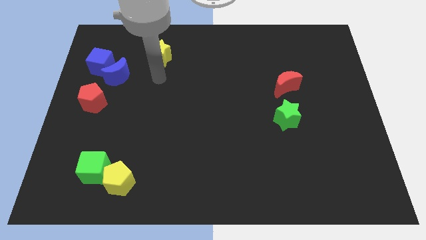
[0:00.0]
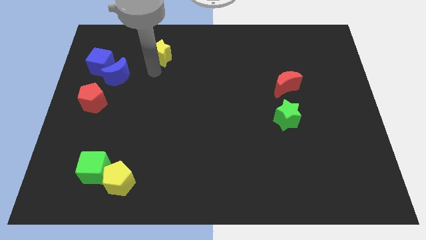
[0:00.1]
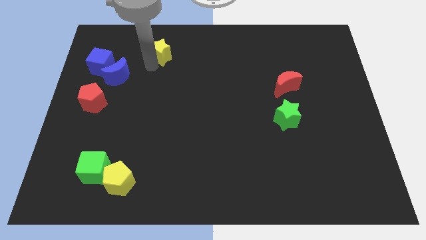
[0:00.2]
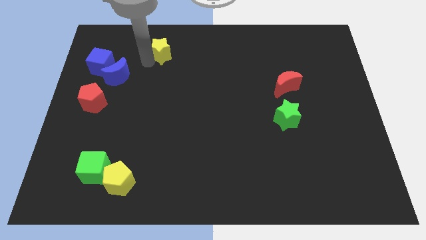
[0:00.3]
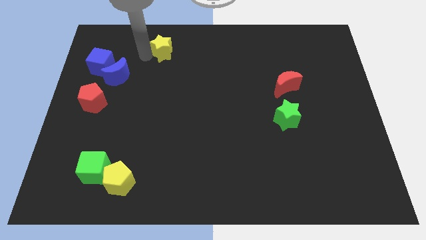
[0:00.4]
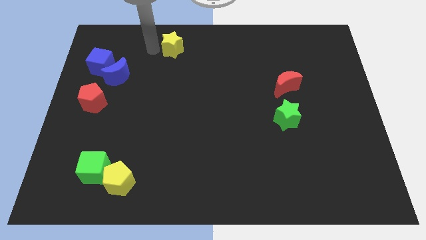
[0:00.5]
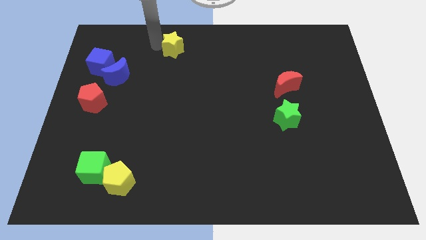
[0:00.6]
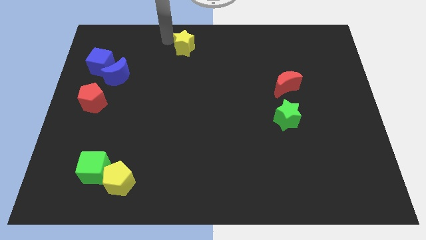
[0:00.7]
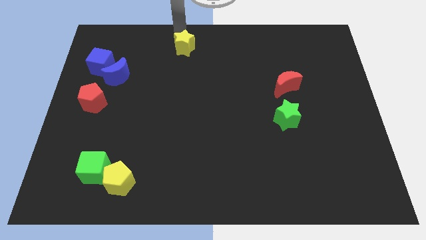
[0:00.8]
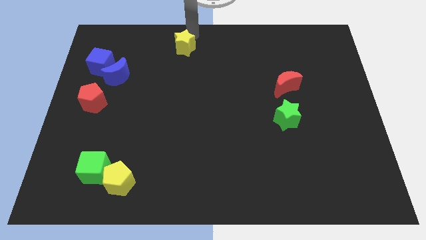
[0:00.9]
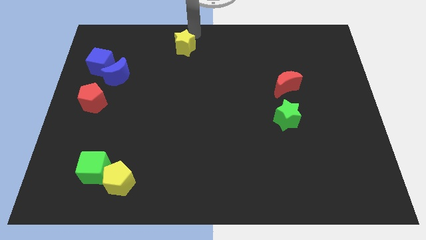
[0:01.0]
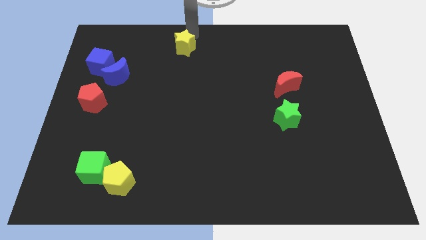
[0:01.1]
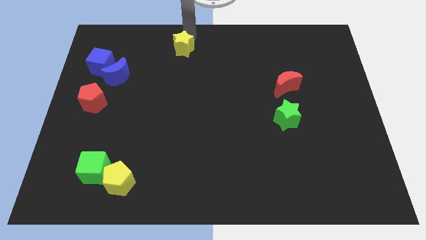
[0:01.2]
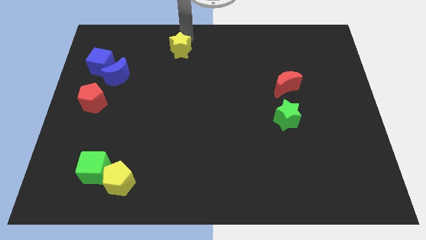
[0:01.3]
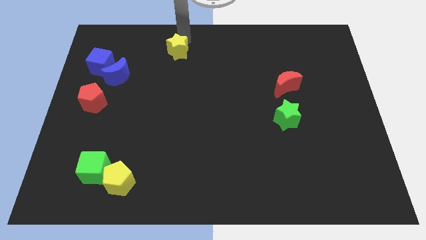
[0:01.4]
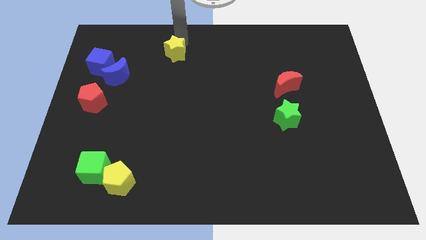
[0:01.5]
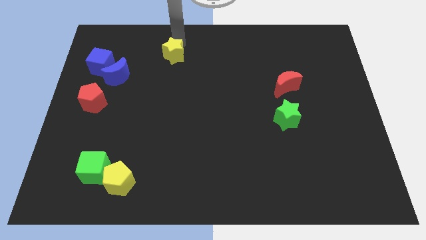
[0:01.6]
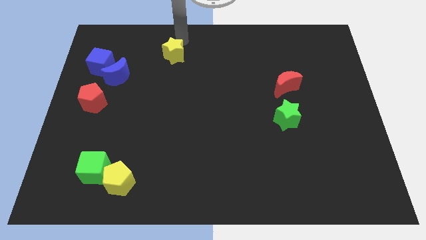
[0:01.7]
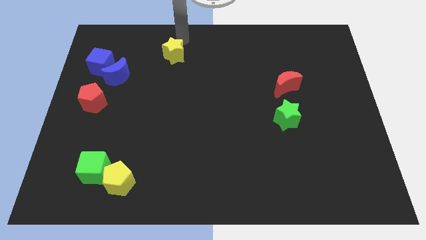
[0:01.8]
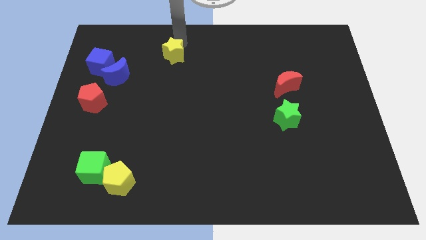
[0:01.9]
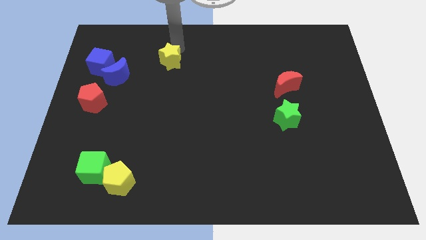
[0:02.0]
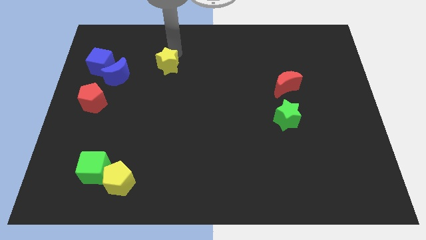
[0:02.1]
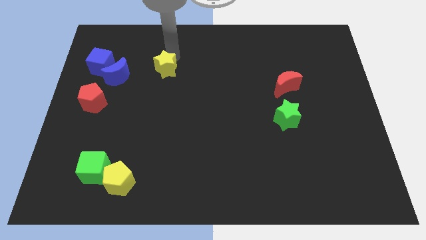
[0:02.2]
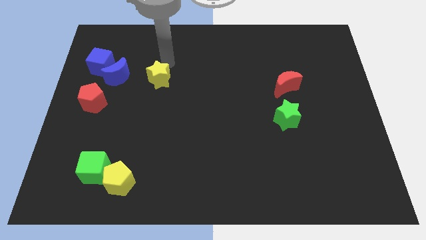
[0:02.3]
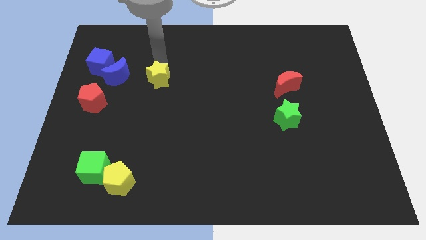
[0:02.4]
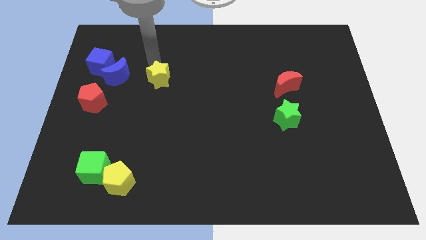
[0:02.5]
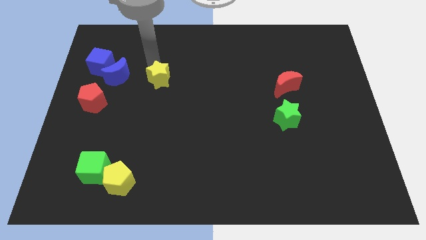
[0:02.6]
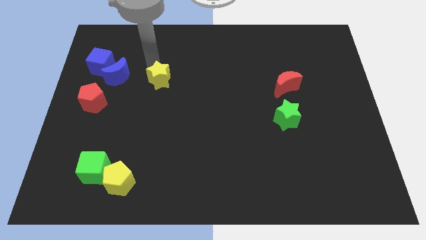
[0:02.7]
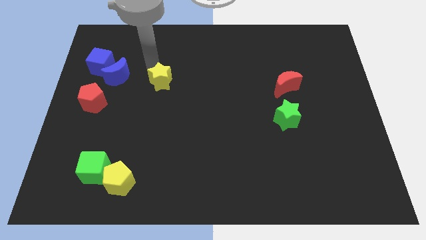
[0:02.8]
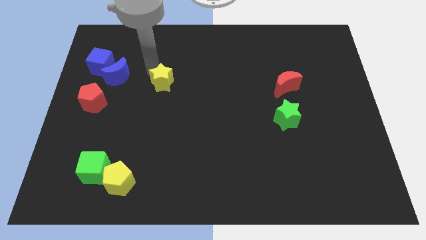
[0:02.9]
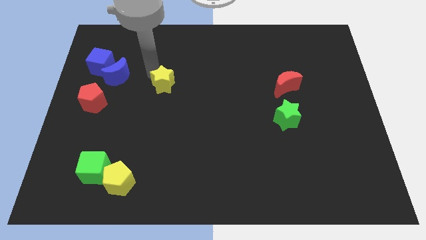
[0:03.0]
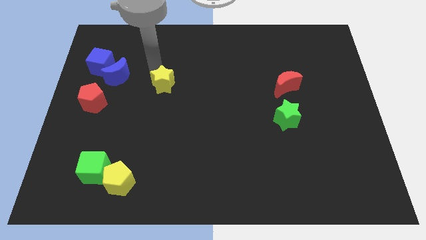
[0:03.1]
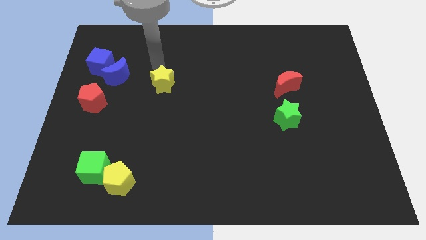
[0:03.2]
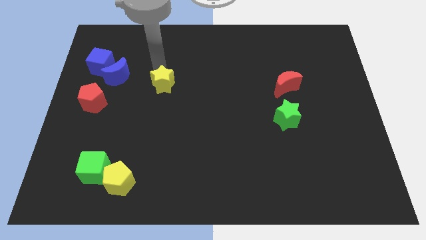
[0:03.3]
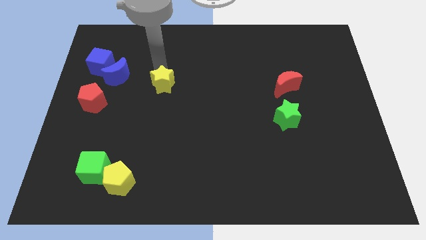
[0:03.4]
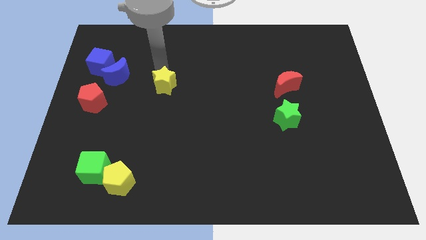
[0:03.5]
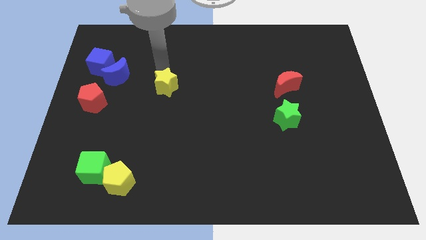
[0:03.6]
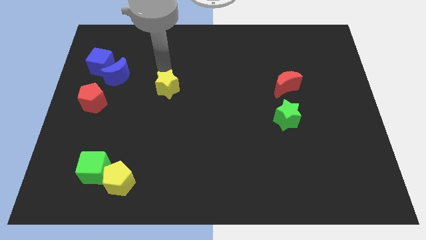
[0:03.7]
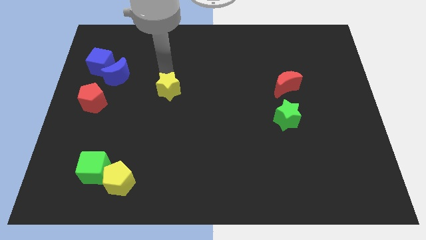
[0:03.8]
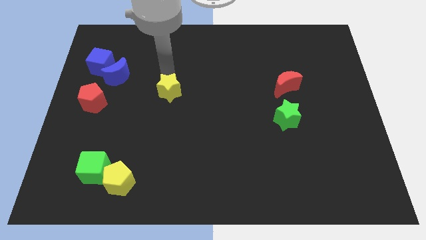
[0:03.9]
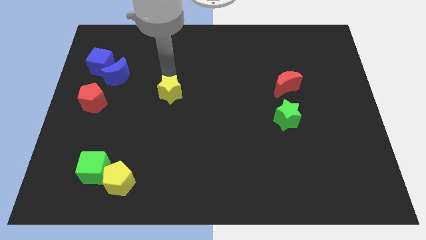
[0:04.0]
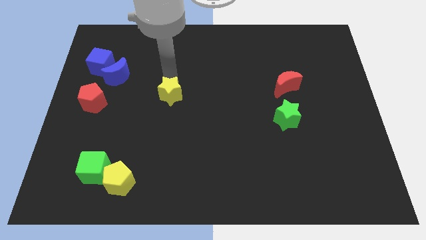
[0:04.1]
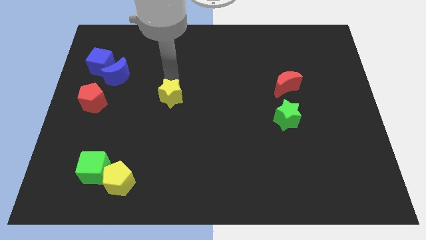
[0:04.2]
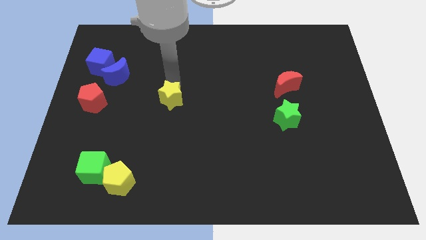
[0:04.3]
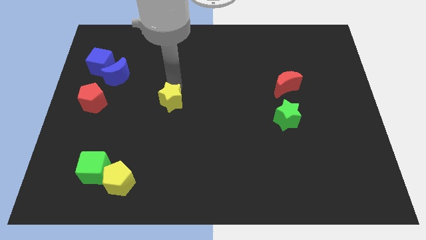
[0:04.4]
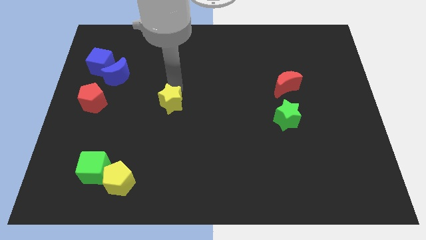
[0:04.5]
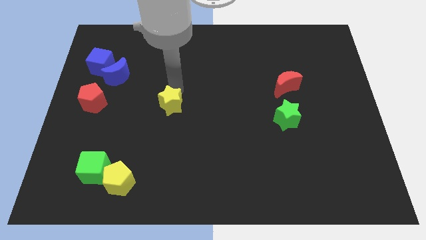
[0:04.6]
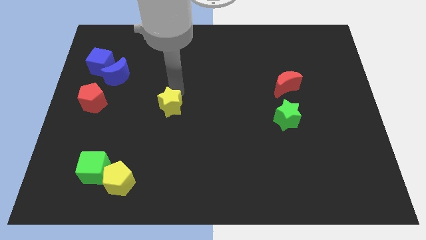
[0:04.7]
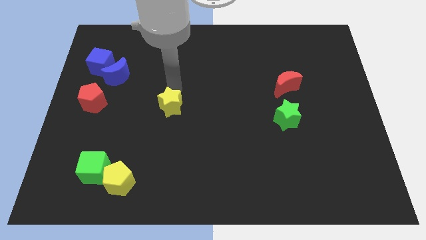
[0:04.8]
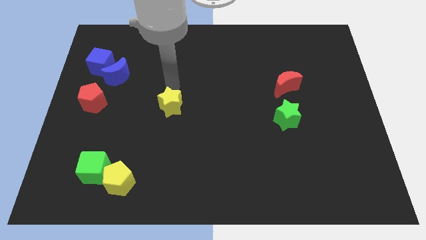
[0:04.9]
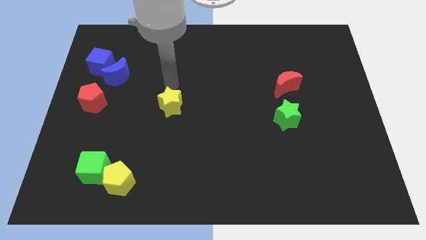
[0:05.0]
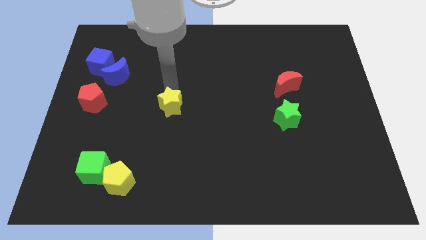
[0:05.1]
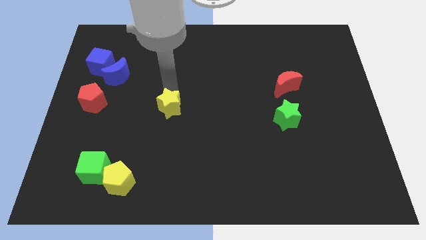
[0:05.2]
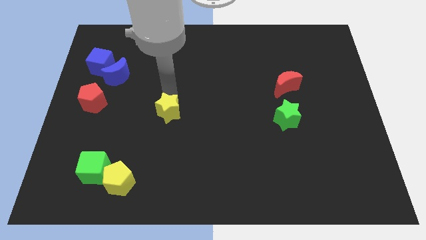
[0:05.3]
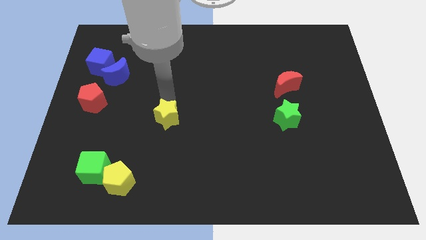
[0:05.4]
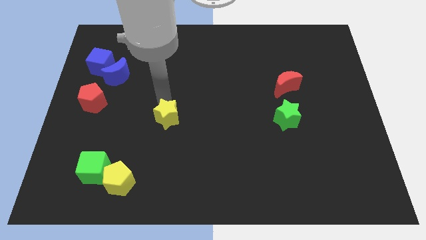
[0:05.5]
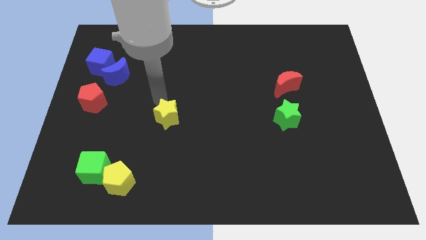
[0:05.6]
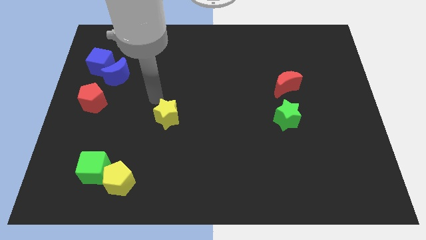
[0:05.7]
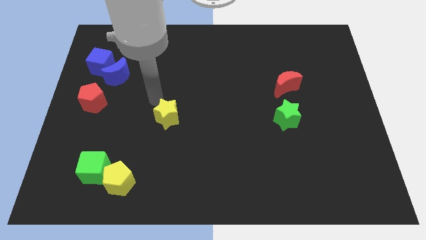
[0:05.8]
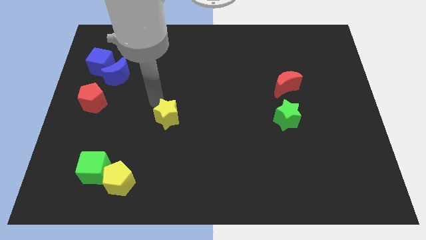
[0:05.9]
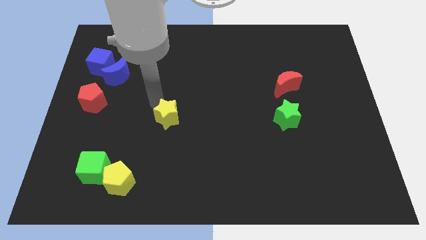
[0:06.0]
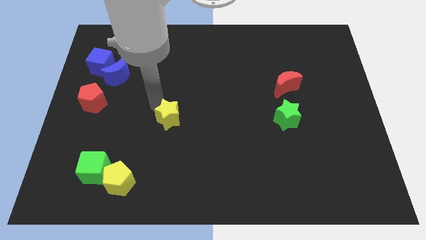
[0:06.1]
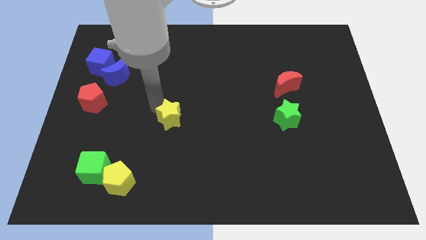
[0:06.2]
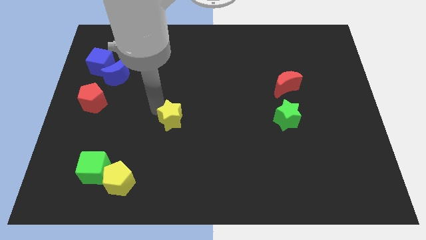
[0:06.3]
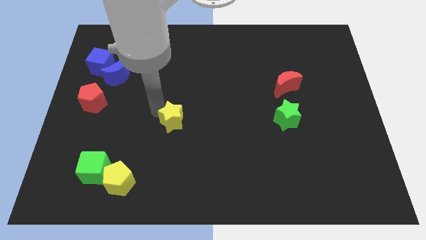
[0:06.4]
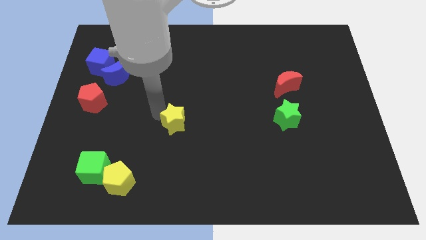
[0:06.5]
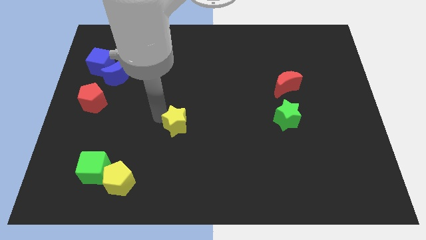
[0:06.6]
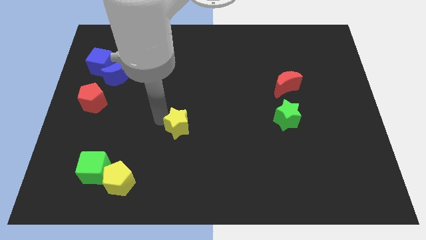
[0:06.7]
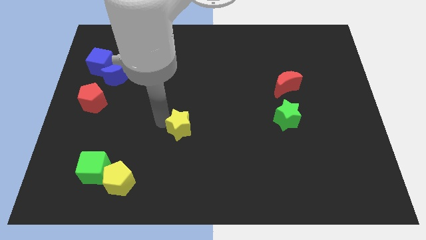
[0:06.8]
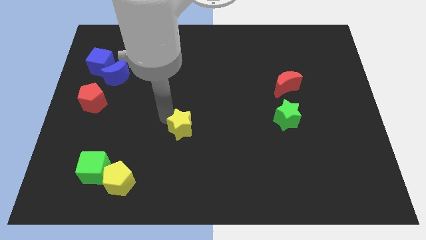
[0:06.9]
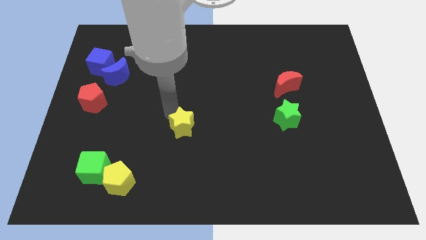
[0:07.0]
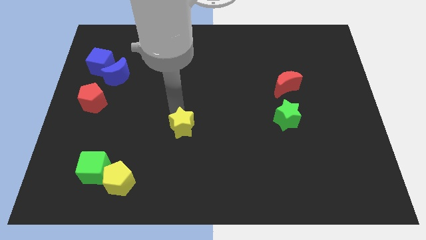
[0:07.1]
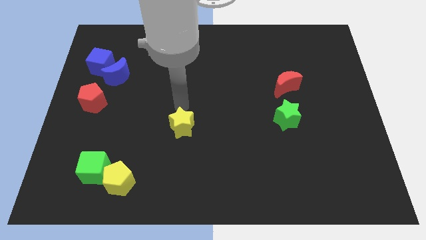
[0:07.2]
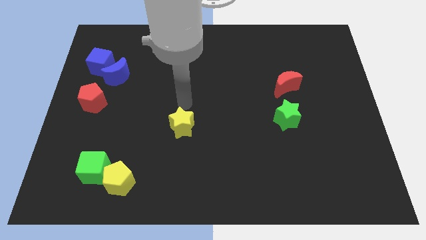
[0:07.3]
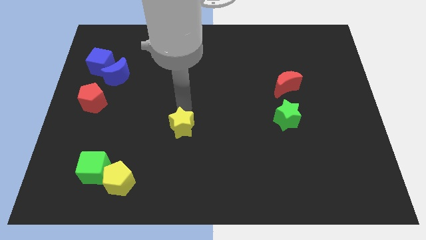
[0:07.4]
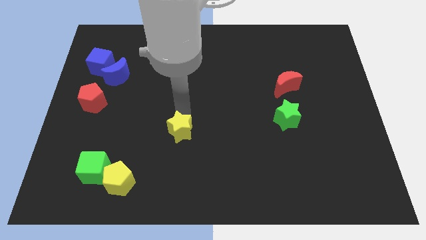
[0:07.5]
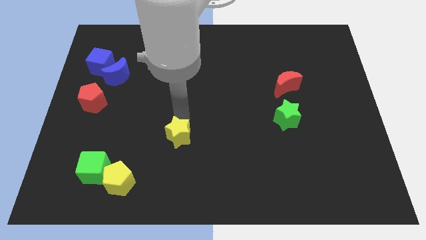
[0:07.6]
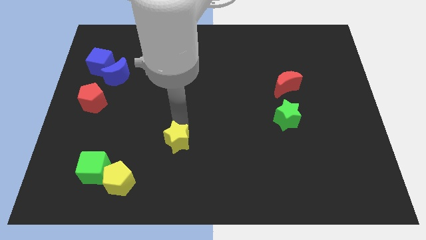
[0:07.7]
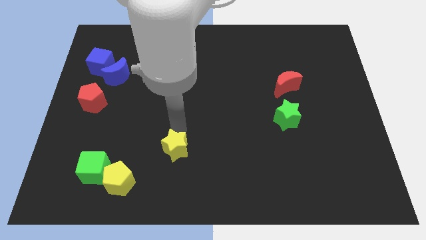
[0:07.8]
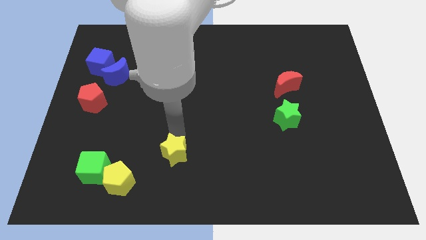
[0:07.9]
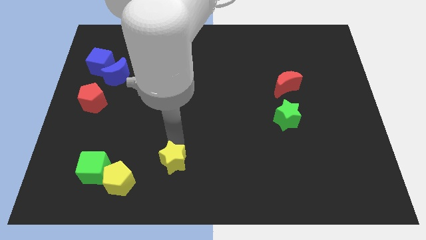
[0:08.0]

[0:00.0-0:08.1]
put the yellow star just right of the yellow pentagon
